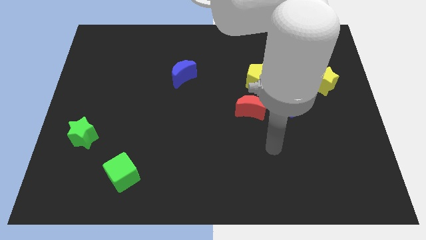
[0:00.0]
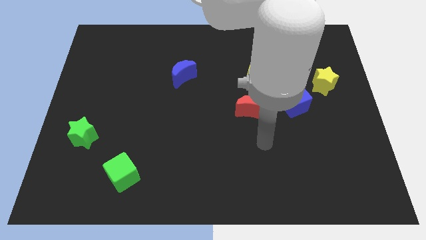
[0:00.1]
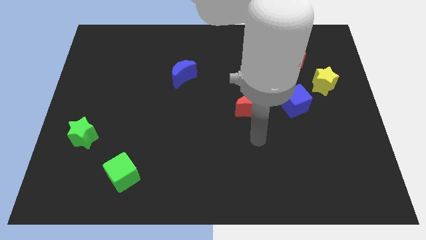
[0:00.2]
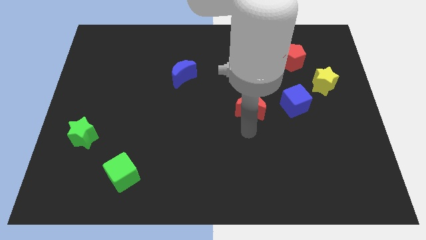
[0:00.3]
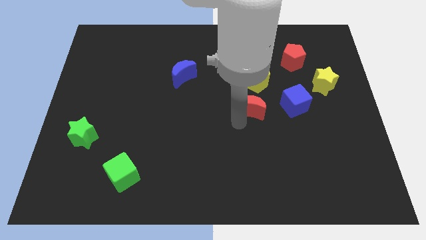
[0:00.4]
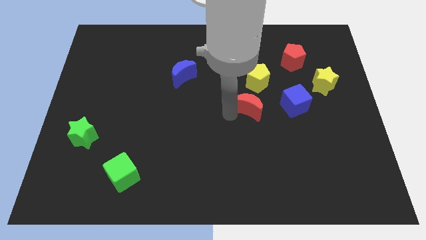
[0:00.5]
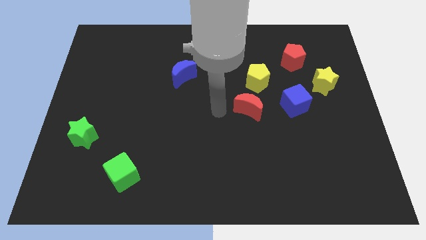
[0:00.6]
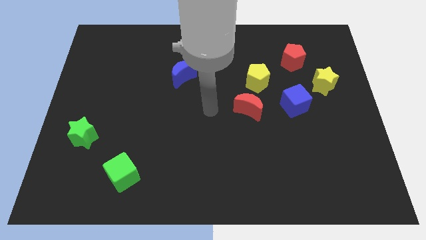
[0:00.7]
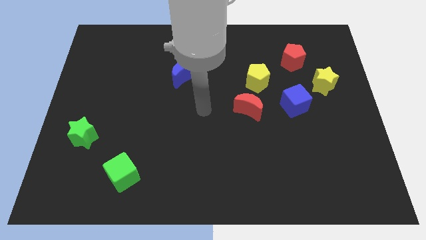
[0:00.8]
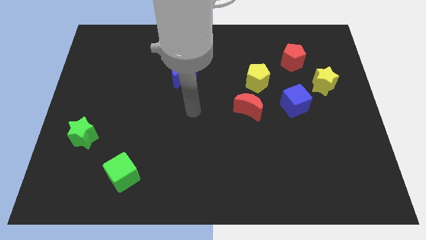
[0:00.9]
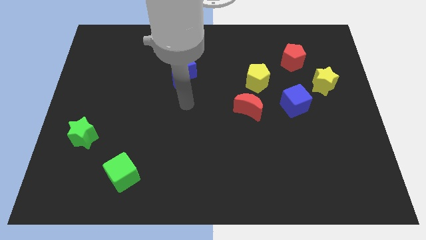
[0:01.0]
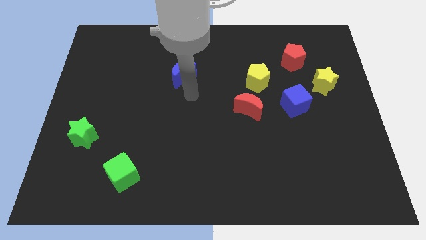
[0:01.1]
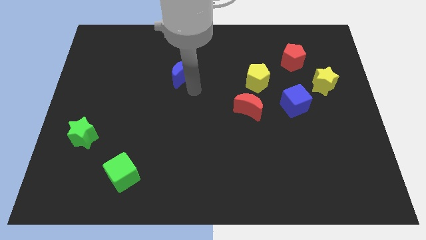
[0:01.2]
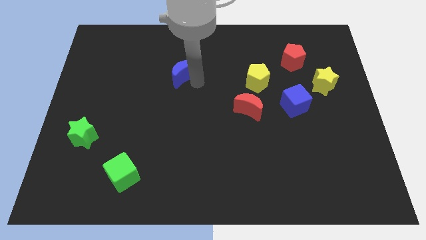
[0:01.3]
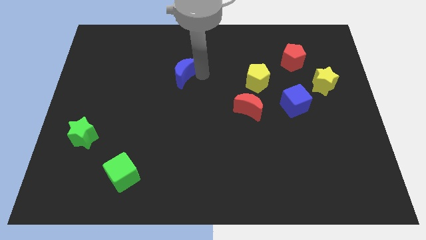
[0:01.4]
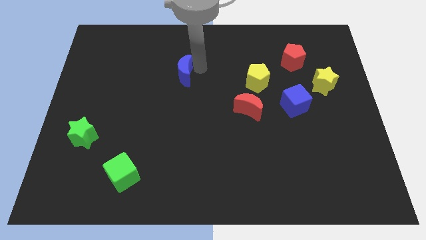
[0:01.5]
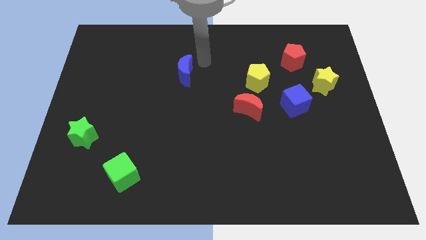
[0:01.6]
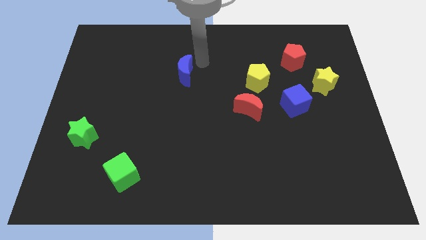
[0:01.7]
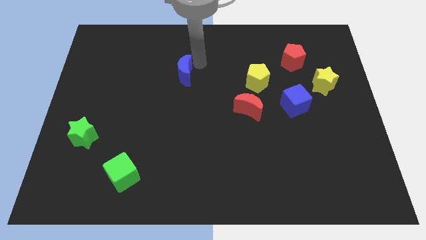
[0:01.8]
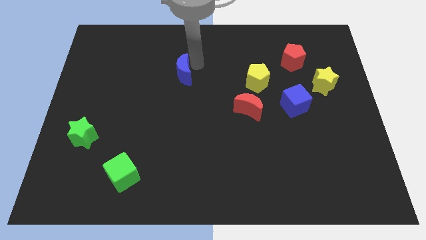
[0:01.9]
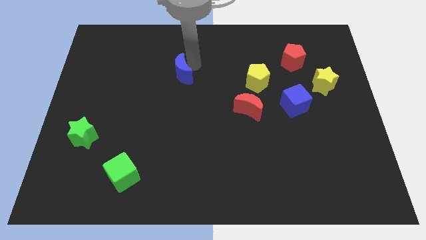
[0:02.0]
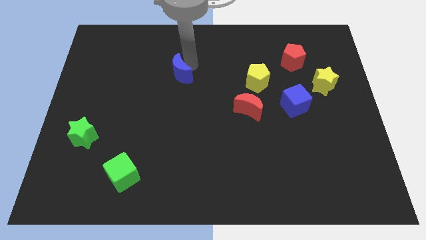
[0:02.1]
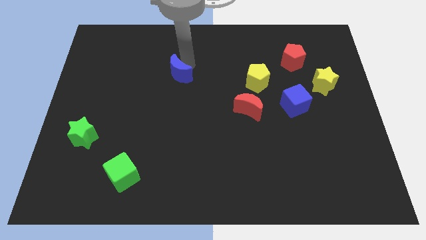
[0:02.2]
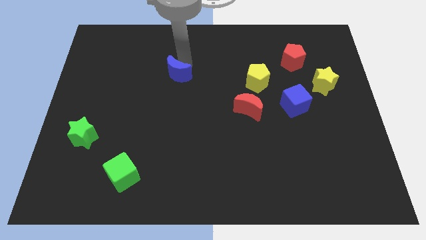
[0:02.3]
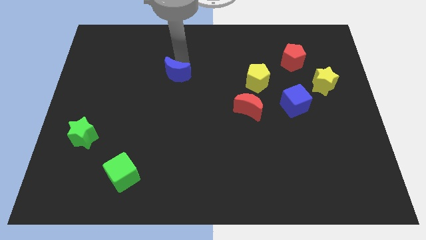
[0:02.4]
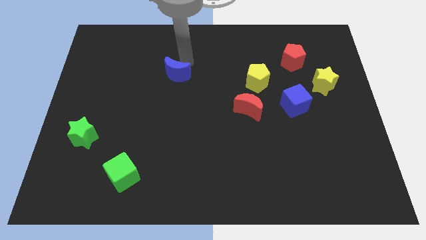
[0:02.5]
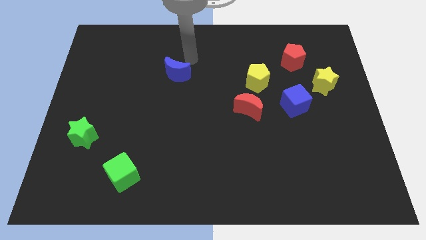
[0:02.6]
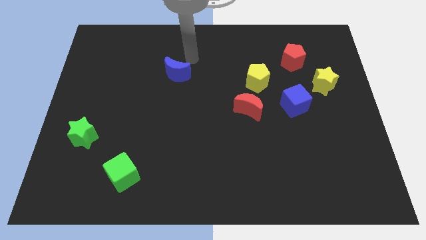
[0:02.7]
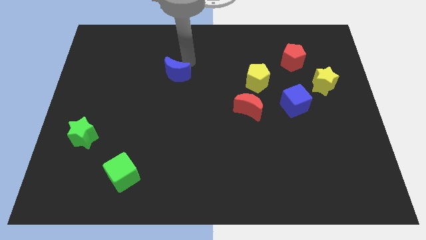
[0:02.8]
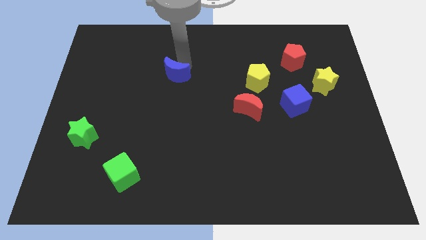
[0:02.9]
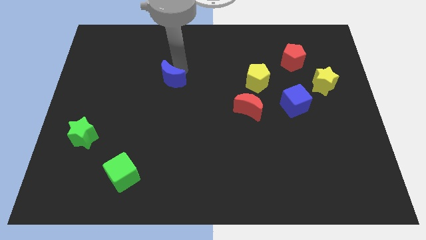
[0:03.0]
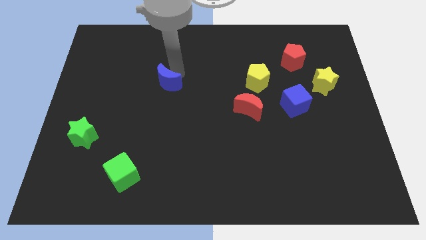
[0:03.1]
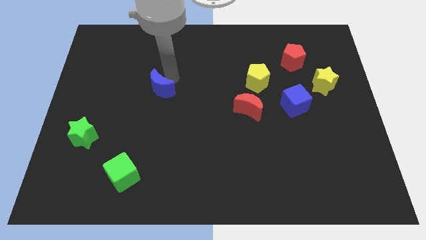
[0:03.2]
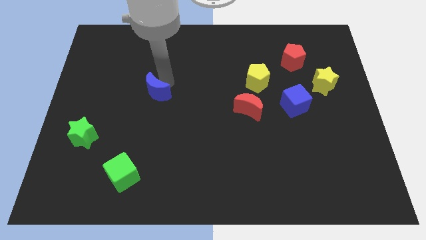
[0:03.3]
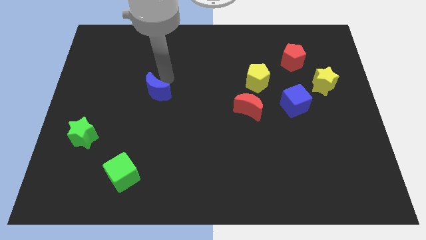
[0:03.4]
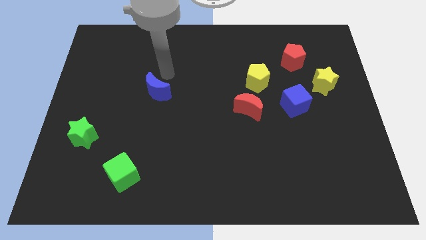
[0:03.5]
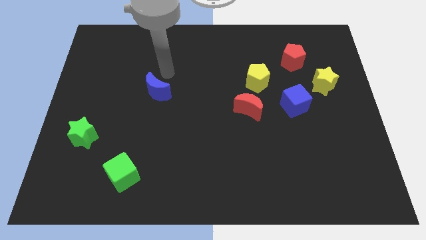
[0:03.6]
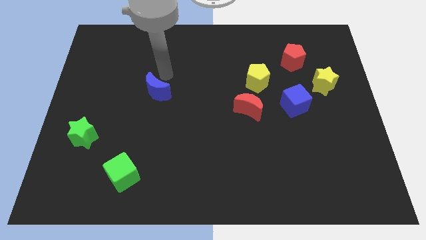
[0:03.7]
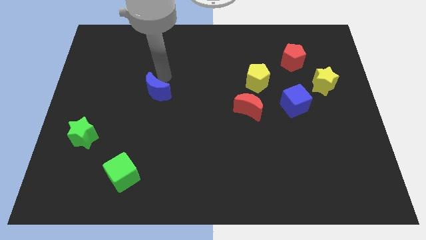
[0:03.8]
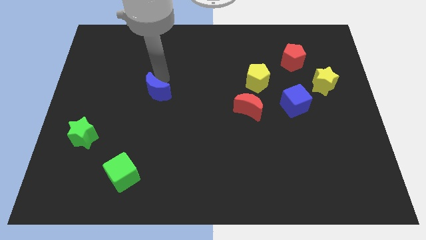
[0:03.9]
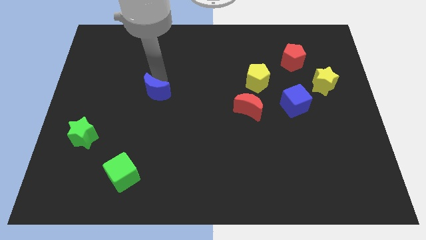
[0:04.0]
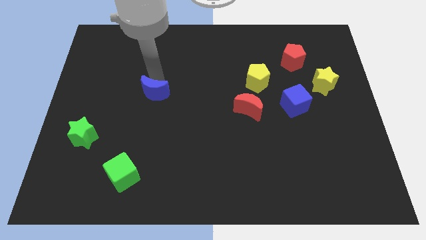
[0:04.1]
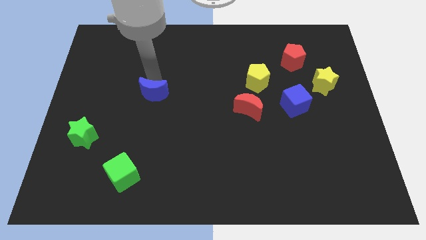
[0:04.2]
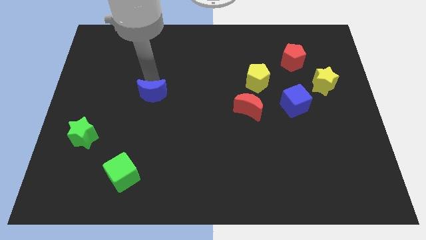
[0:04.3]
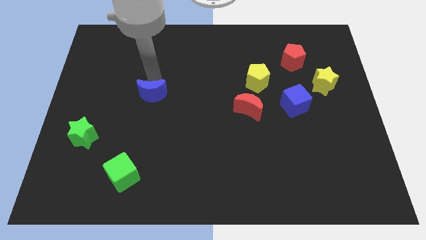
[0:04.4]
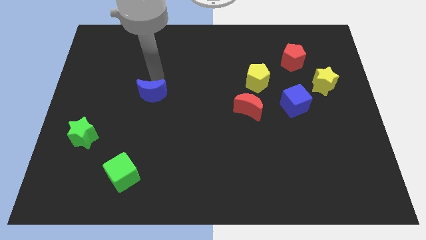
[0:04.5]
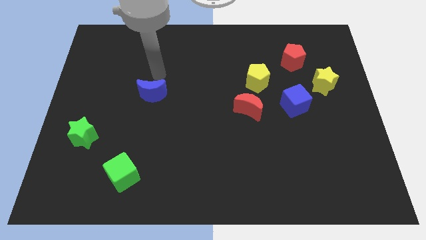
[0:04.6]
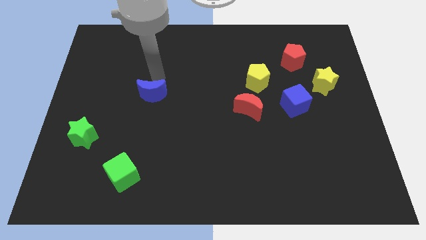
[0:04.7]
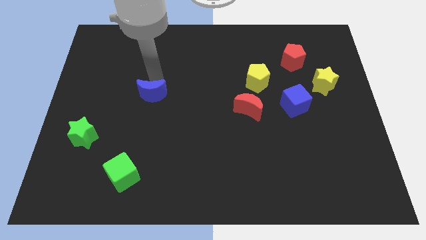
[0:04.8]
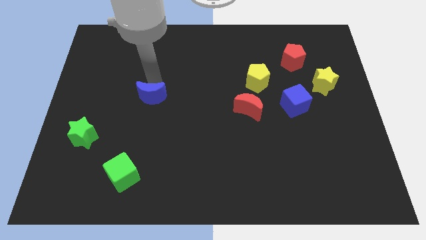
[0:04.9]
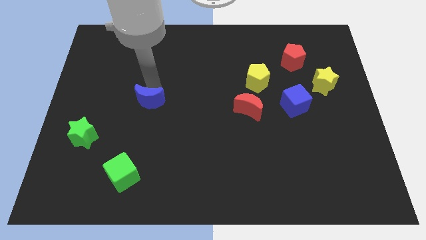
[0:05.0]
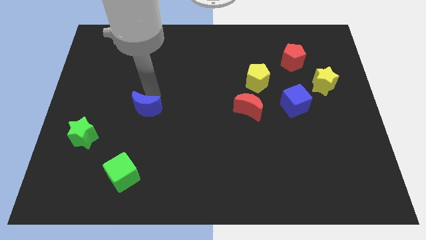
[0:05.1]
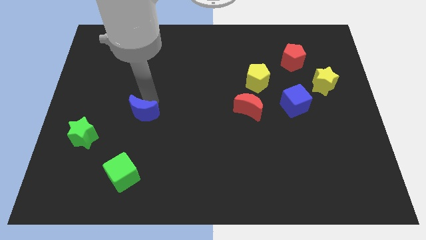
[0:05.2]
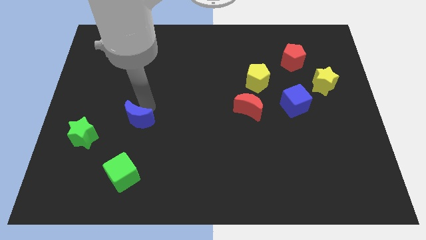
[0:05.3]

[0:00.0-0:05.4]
put the blue moon to the top side of the green cube

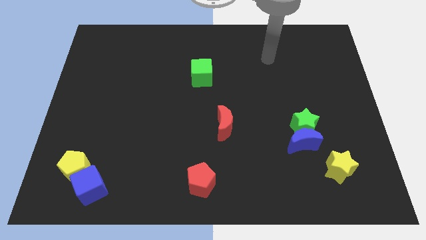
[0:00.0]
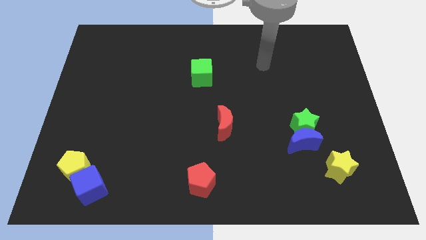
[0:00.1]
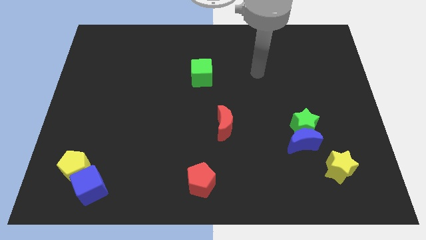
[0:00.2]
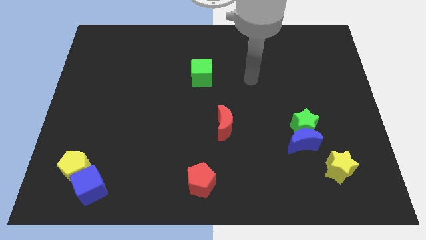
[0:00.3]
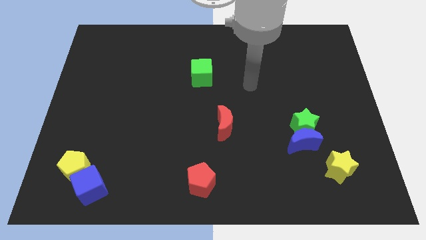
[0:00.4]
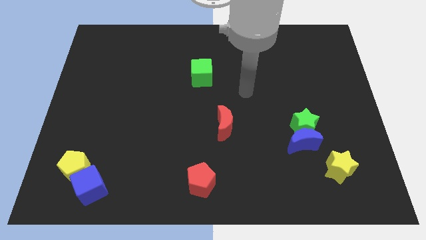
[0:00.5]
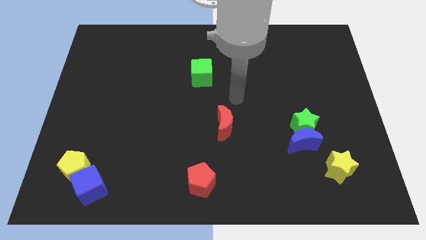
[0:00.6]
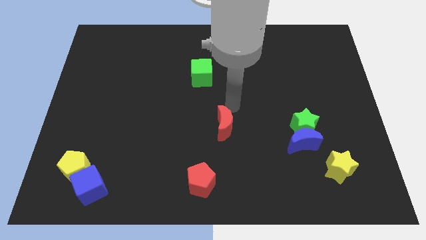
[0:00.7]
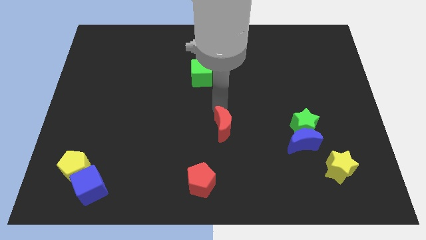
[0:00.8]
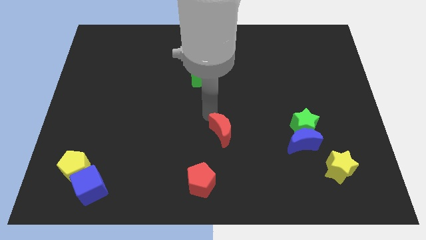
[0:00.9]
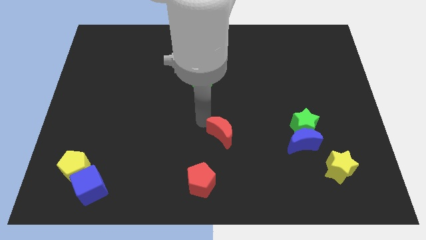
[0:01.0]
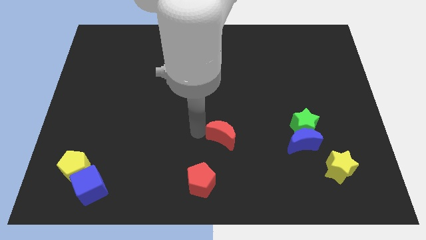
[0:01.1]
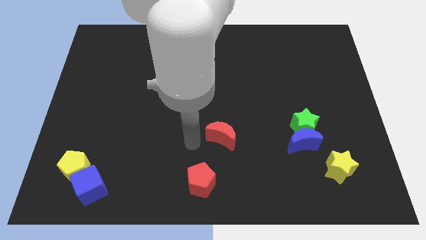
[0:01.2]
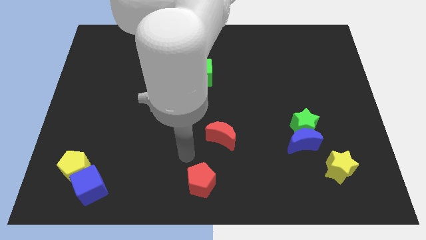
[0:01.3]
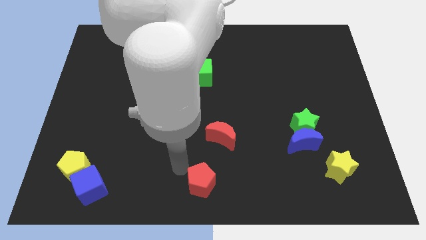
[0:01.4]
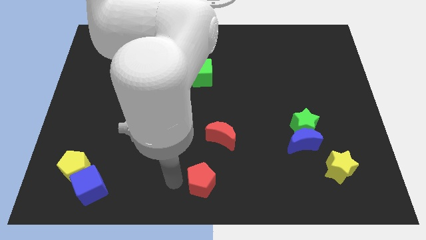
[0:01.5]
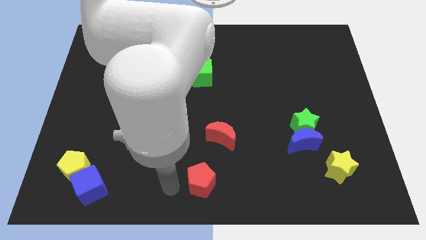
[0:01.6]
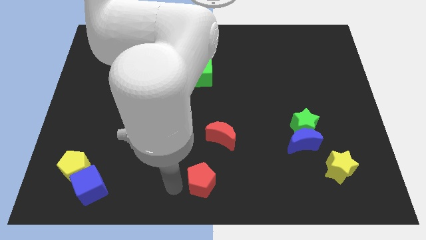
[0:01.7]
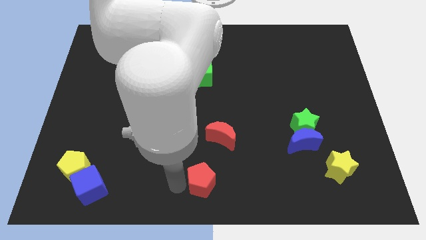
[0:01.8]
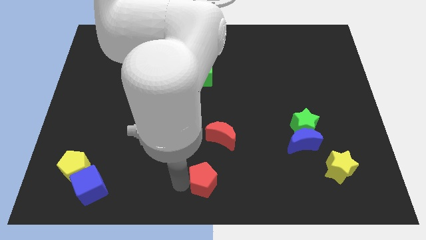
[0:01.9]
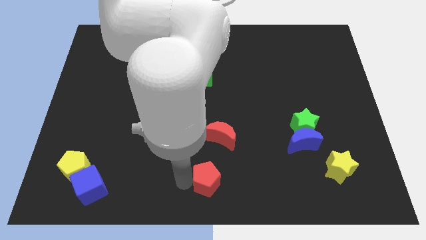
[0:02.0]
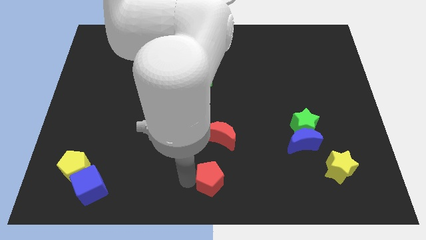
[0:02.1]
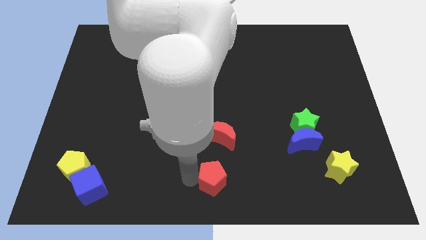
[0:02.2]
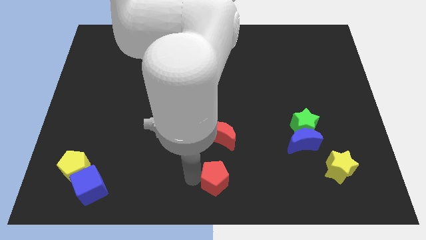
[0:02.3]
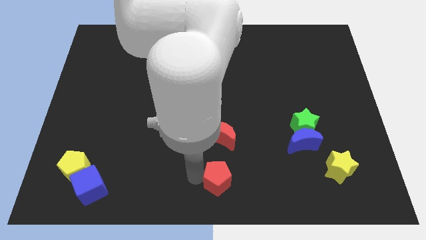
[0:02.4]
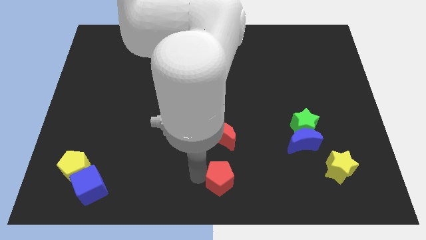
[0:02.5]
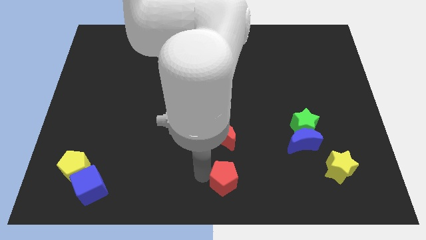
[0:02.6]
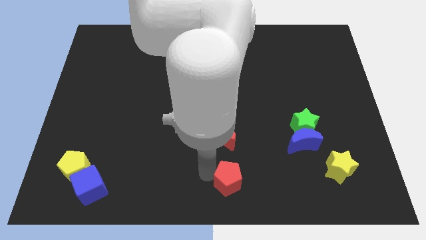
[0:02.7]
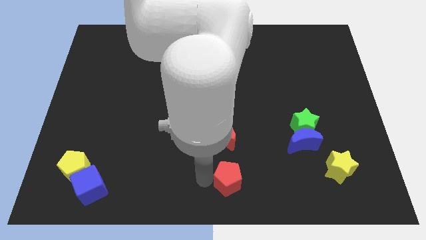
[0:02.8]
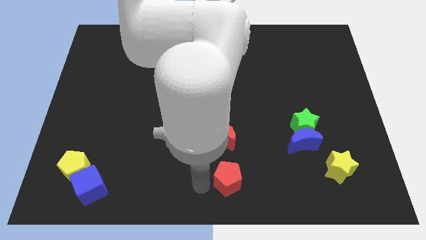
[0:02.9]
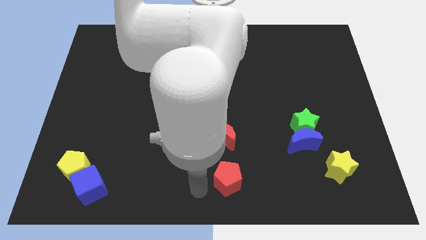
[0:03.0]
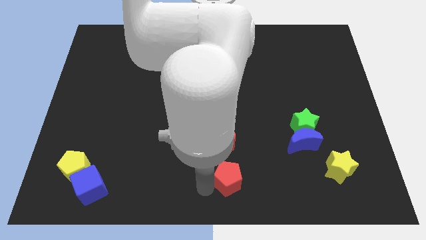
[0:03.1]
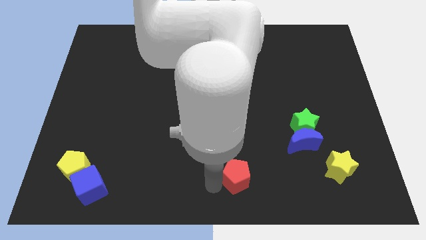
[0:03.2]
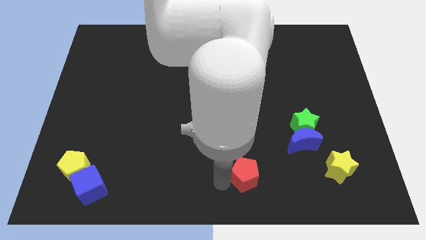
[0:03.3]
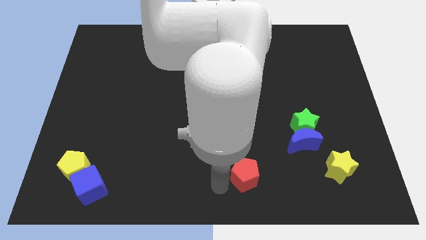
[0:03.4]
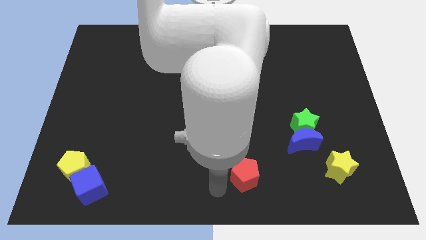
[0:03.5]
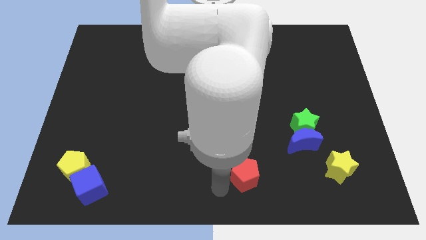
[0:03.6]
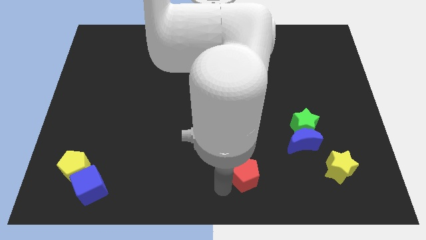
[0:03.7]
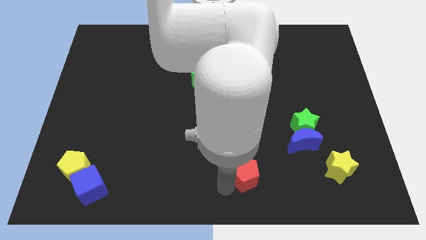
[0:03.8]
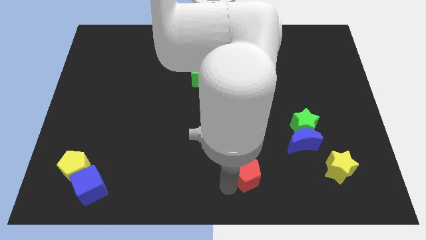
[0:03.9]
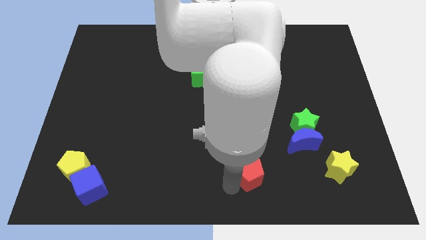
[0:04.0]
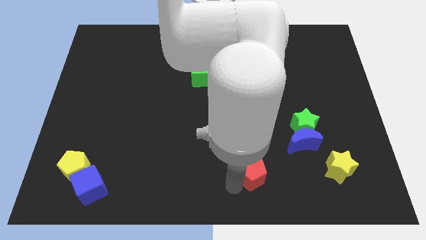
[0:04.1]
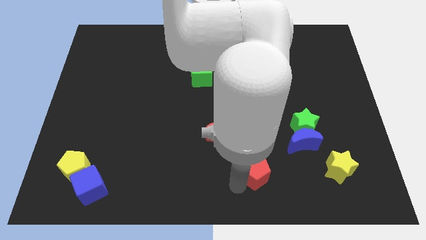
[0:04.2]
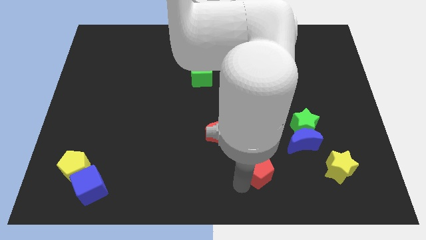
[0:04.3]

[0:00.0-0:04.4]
put the red pentagon diagonally down and to the left of the blue moon
